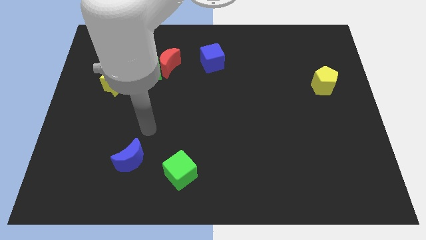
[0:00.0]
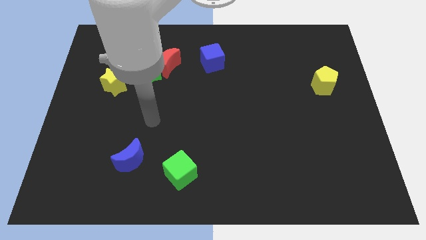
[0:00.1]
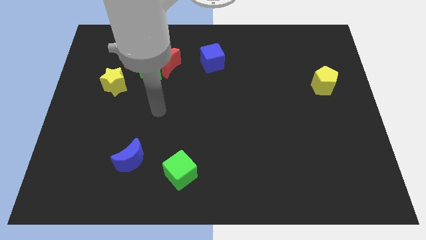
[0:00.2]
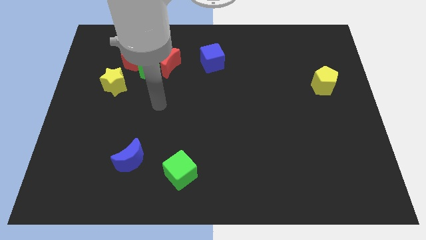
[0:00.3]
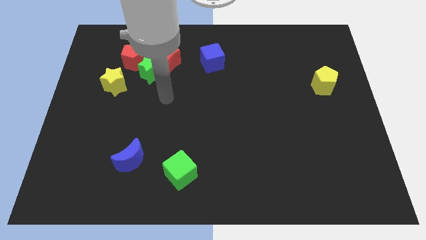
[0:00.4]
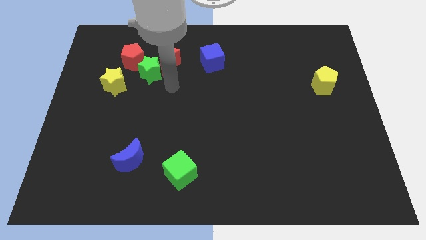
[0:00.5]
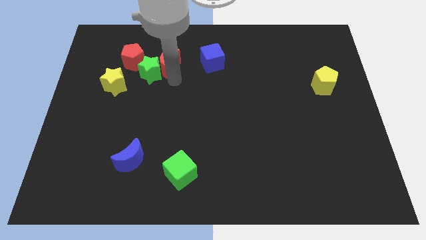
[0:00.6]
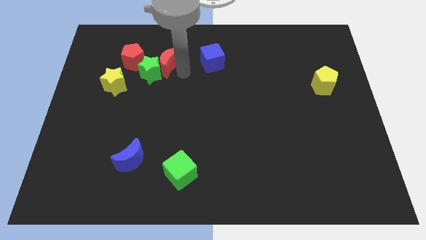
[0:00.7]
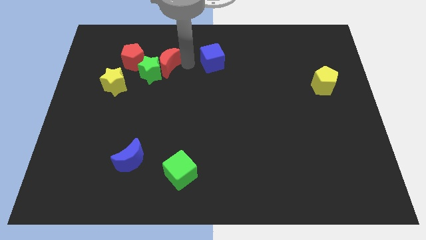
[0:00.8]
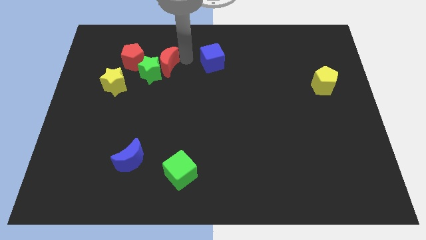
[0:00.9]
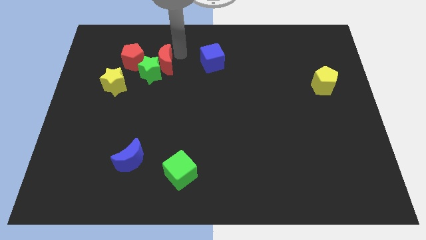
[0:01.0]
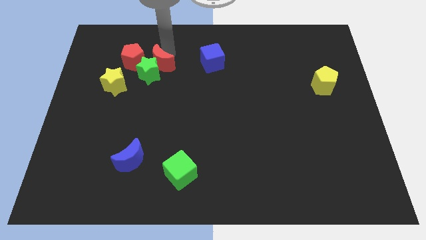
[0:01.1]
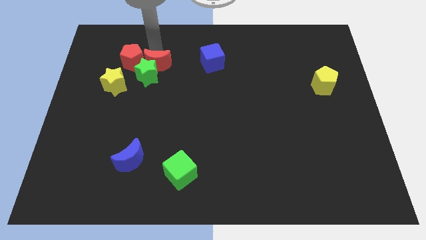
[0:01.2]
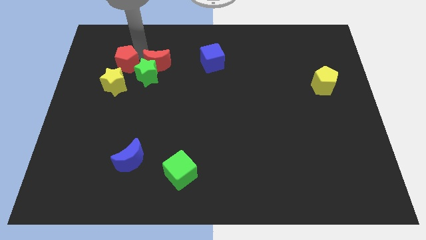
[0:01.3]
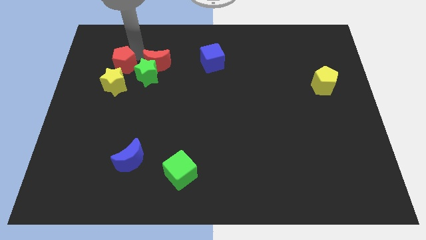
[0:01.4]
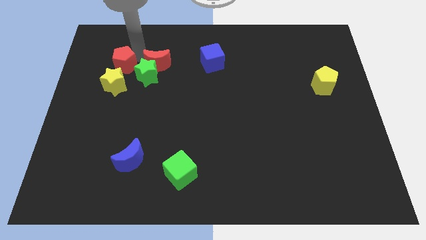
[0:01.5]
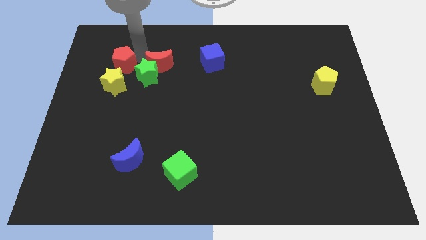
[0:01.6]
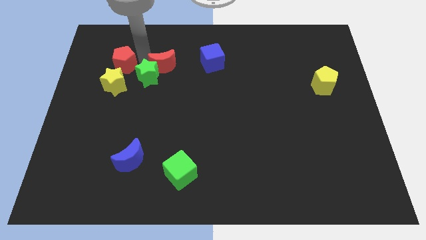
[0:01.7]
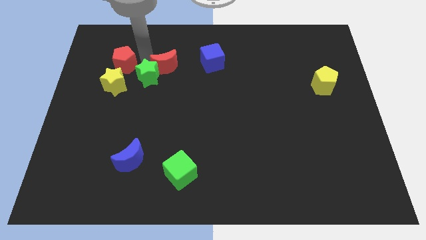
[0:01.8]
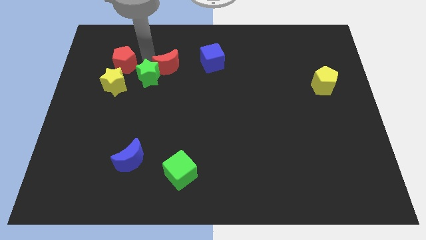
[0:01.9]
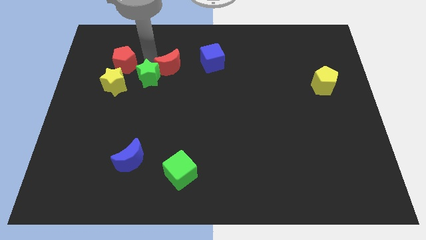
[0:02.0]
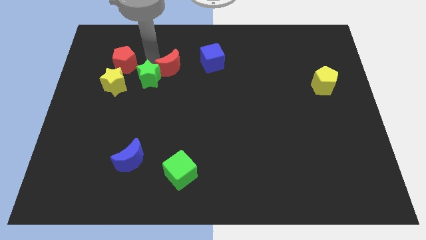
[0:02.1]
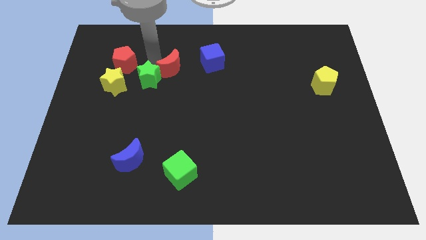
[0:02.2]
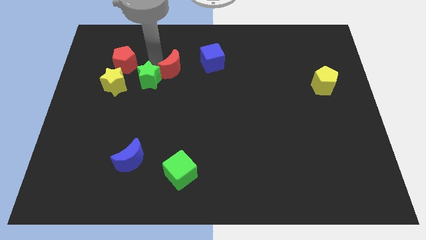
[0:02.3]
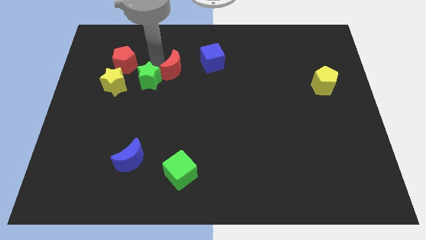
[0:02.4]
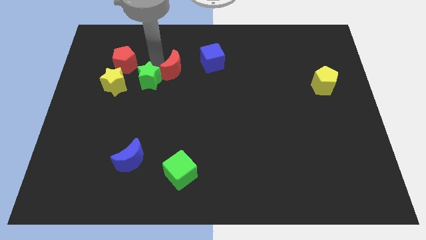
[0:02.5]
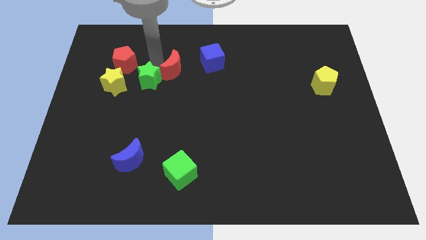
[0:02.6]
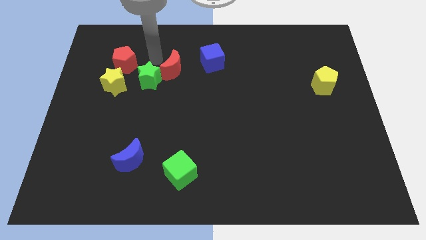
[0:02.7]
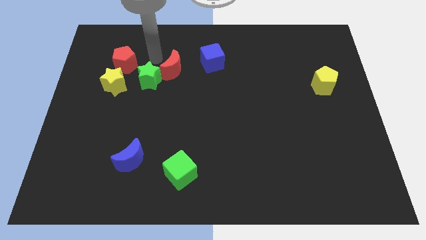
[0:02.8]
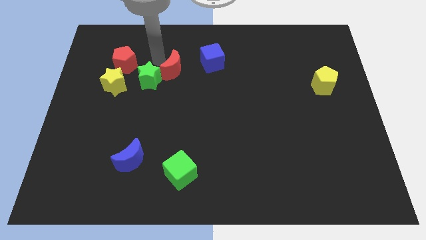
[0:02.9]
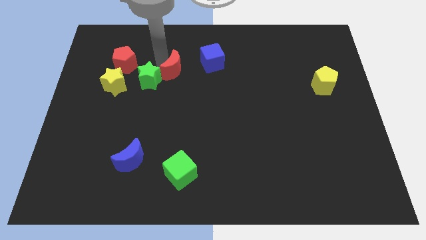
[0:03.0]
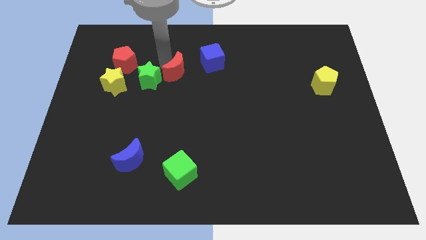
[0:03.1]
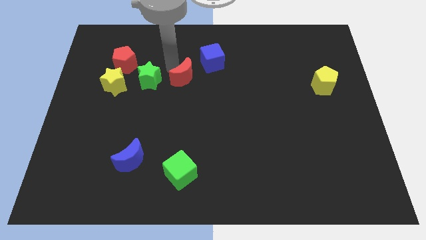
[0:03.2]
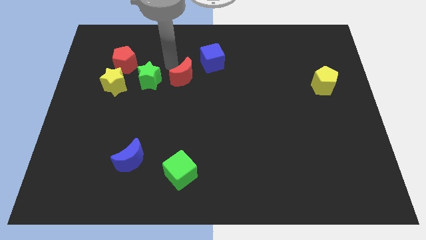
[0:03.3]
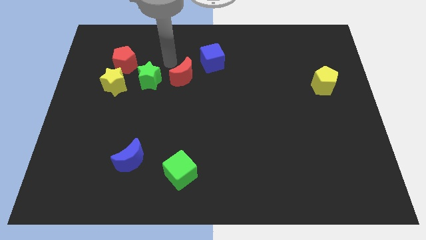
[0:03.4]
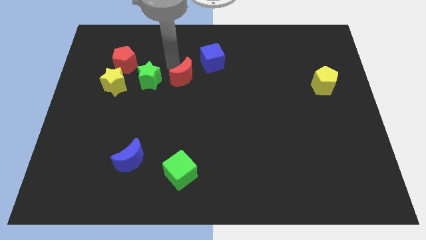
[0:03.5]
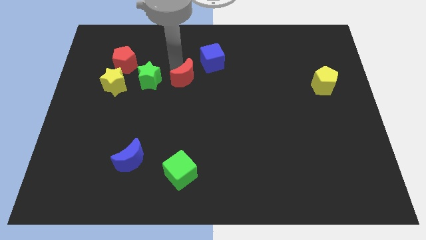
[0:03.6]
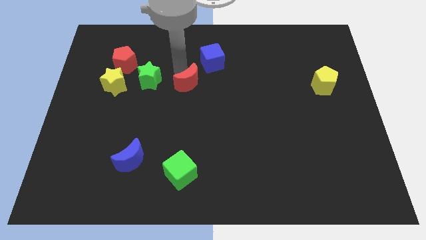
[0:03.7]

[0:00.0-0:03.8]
move the red moon a little downwards and to the right diagonally

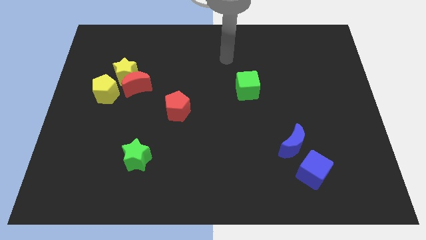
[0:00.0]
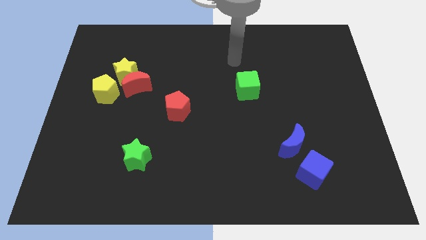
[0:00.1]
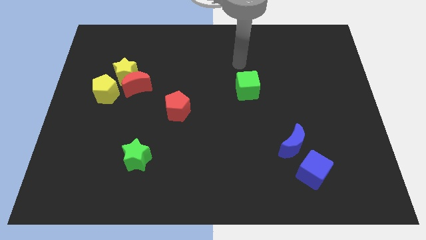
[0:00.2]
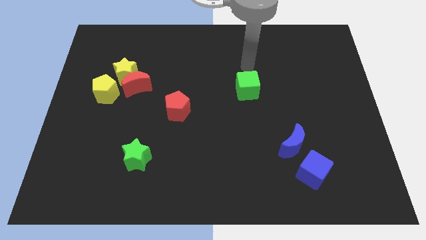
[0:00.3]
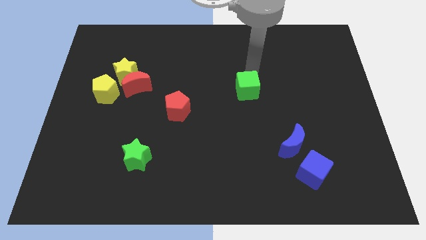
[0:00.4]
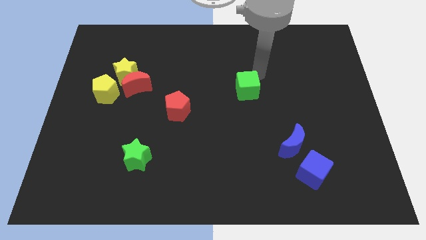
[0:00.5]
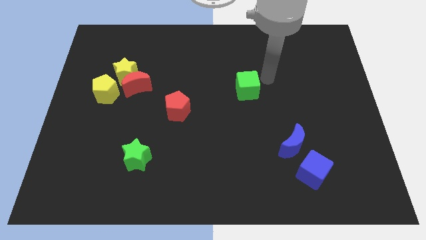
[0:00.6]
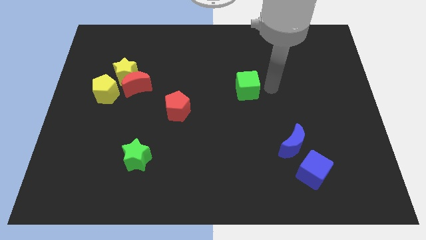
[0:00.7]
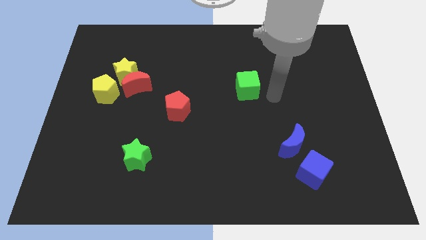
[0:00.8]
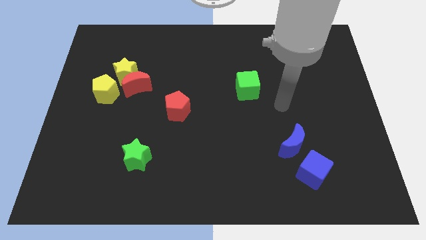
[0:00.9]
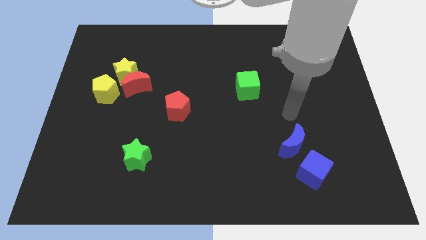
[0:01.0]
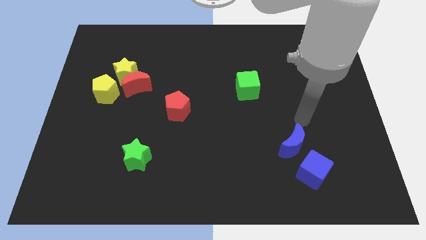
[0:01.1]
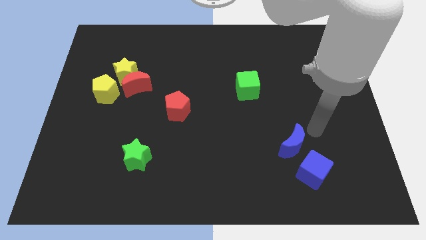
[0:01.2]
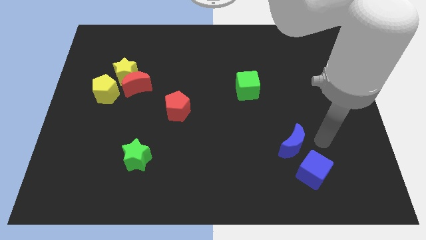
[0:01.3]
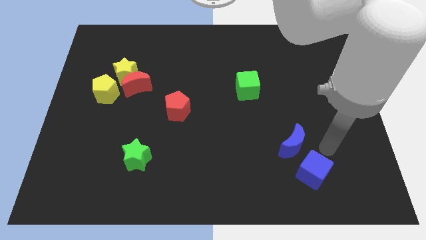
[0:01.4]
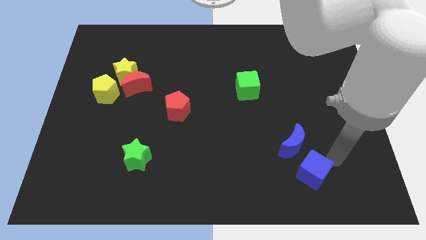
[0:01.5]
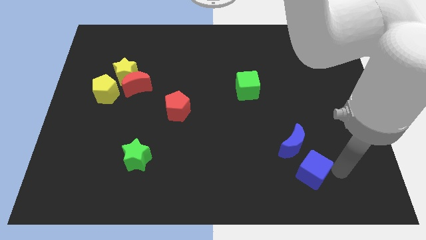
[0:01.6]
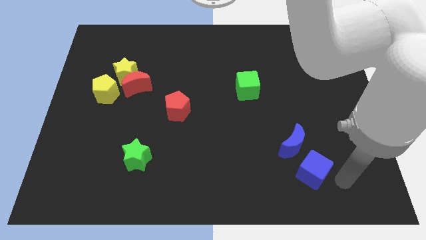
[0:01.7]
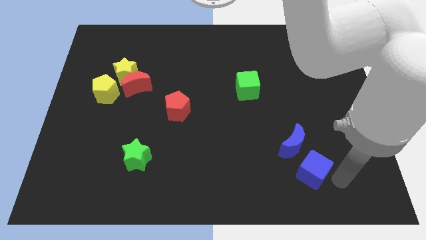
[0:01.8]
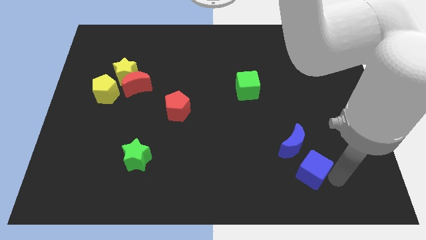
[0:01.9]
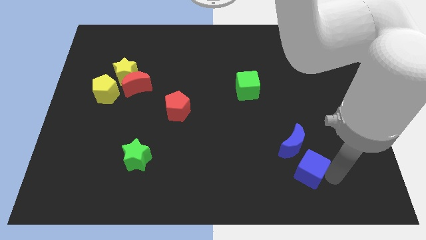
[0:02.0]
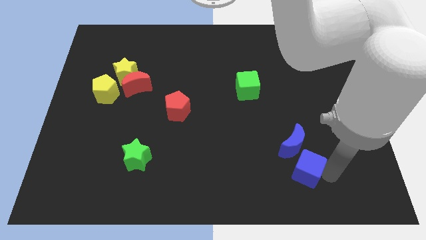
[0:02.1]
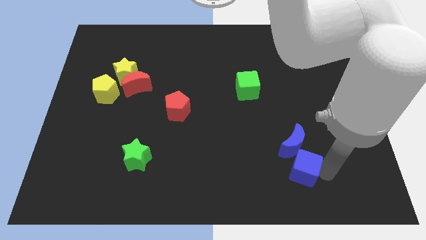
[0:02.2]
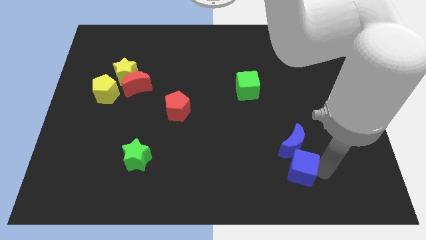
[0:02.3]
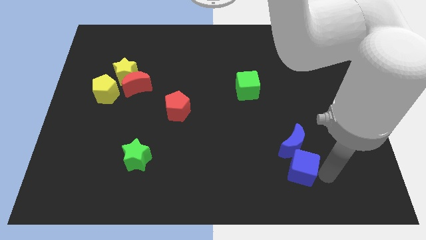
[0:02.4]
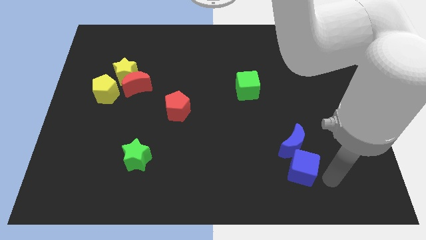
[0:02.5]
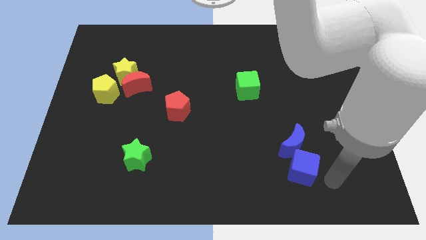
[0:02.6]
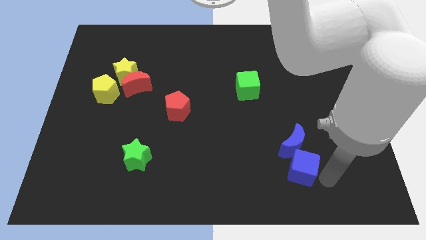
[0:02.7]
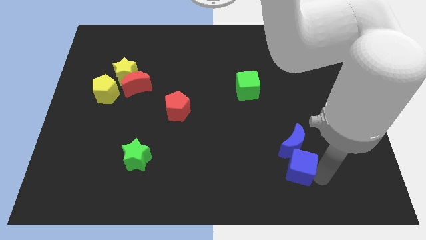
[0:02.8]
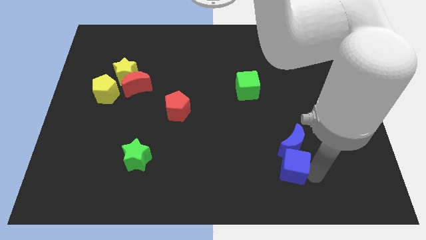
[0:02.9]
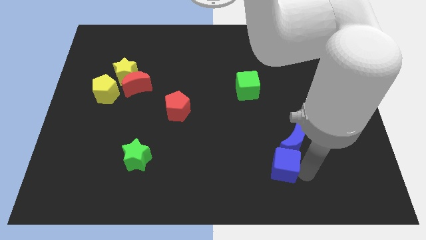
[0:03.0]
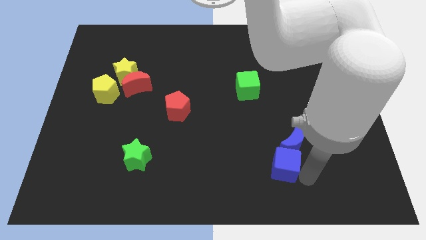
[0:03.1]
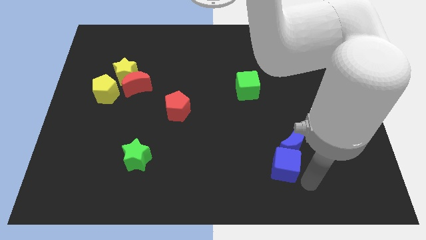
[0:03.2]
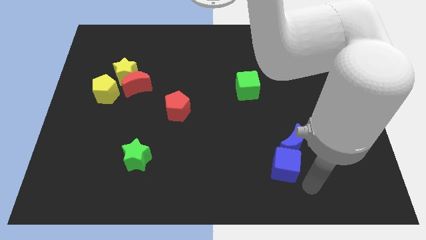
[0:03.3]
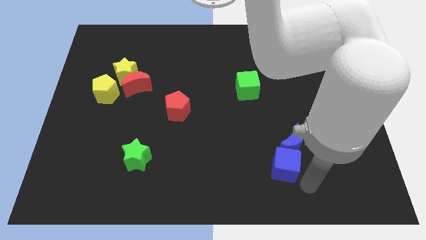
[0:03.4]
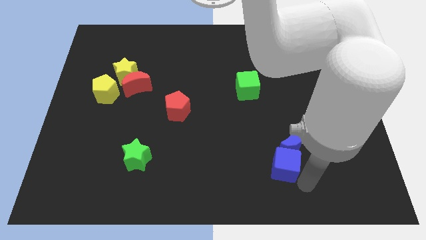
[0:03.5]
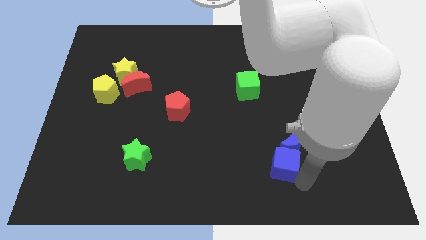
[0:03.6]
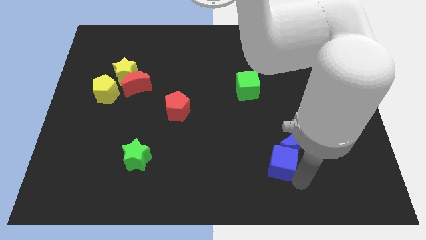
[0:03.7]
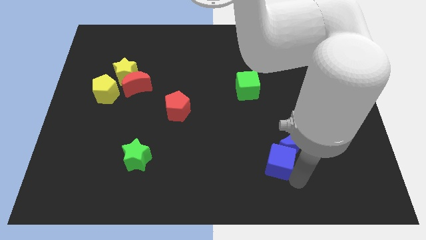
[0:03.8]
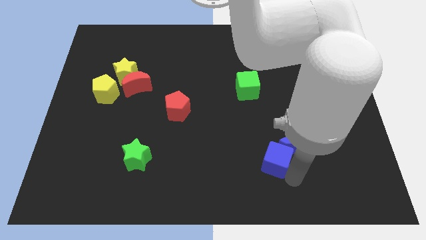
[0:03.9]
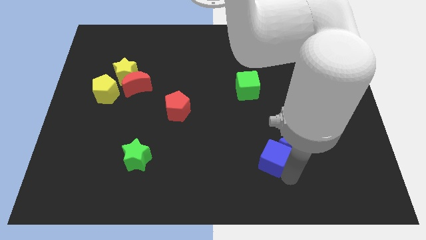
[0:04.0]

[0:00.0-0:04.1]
push the blue cube a little bit upwards and left

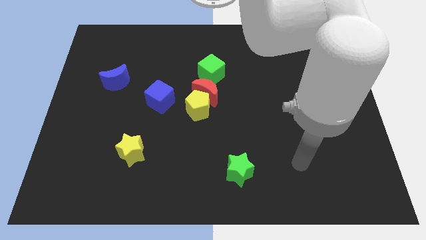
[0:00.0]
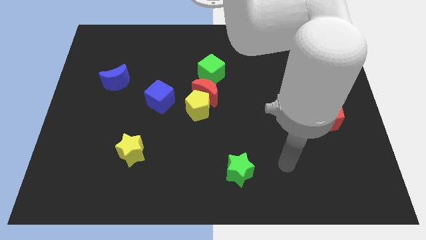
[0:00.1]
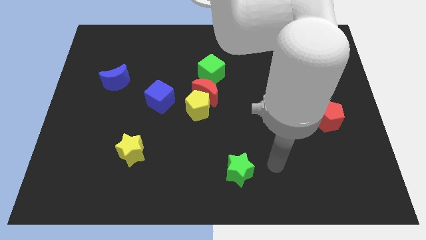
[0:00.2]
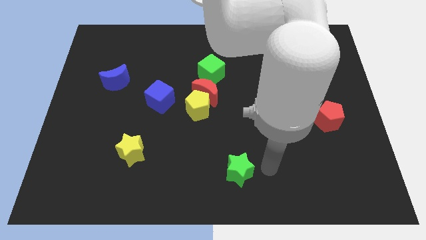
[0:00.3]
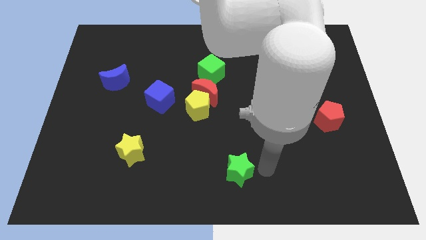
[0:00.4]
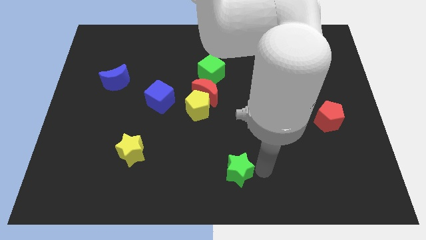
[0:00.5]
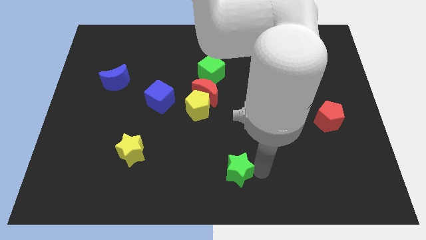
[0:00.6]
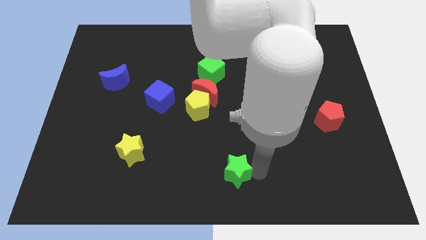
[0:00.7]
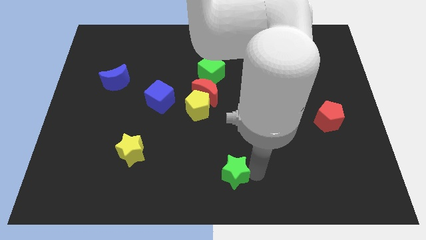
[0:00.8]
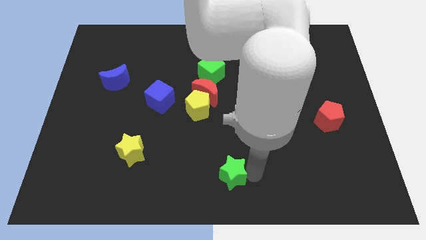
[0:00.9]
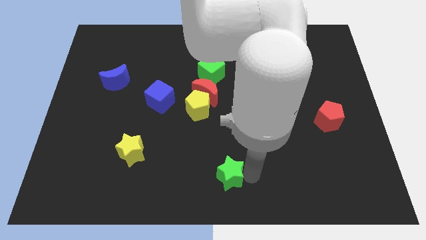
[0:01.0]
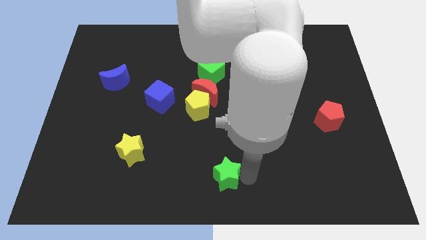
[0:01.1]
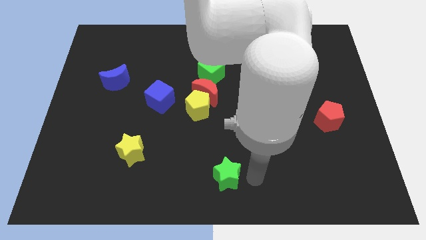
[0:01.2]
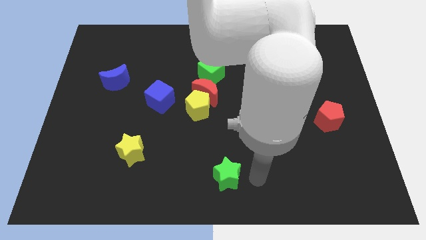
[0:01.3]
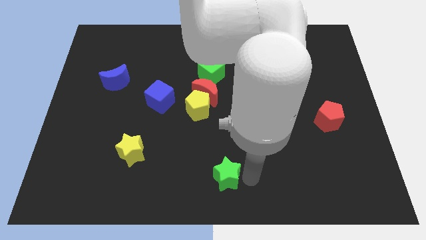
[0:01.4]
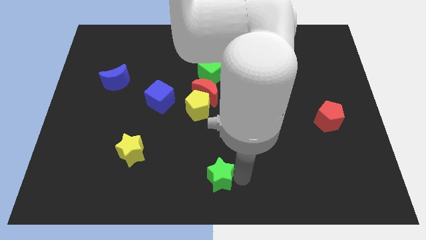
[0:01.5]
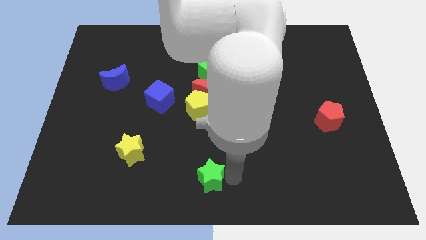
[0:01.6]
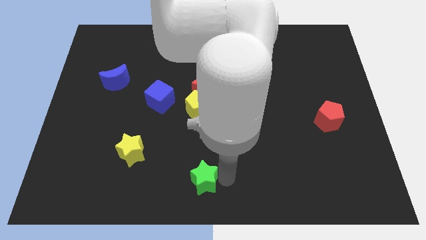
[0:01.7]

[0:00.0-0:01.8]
slide the green star somewhat to the left
